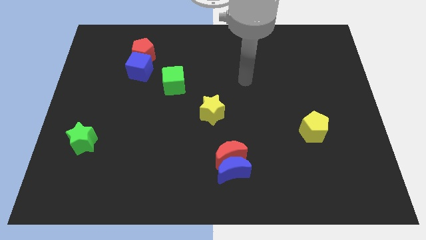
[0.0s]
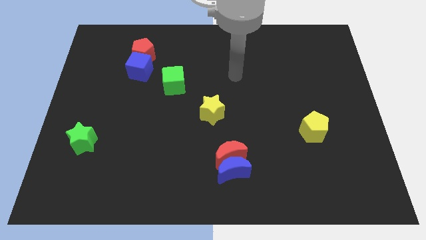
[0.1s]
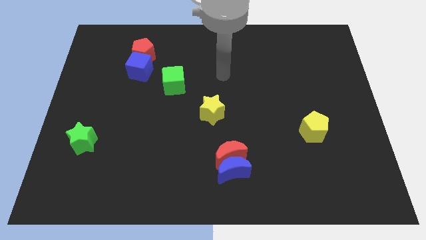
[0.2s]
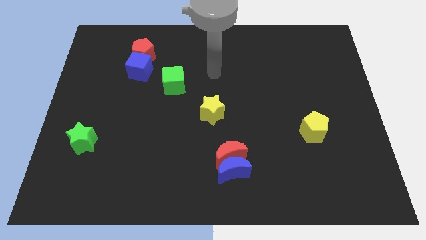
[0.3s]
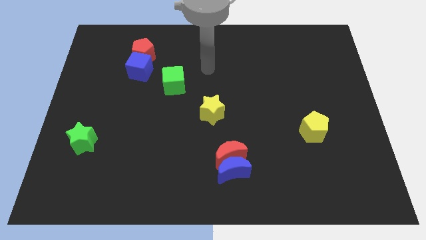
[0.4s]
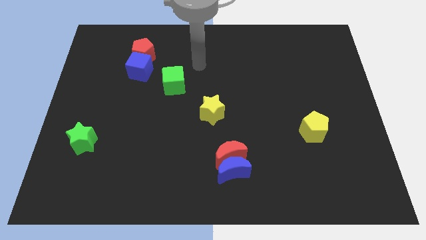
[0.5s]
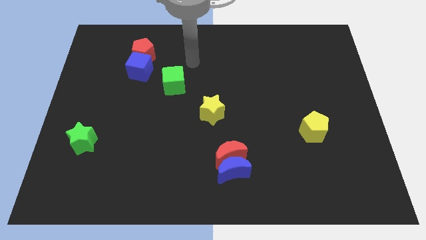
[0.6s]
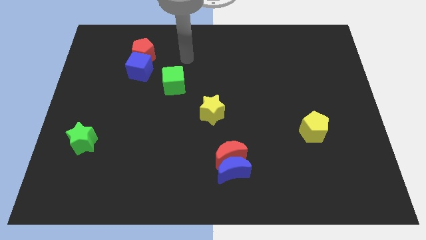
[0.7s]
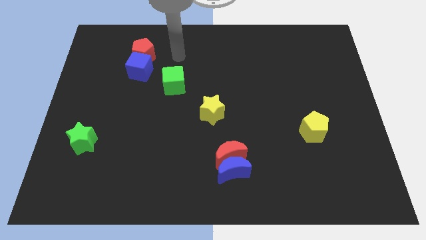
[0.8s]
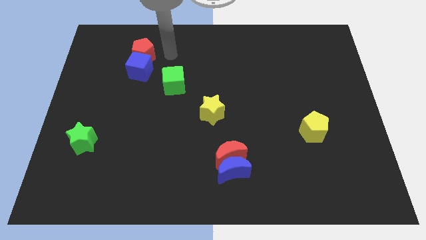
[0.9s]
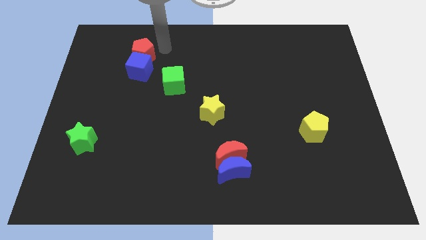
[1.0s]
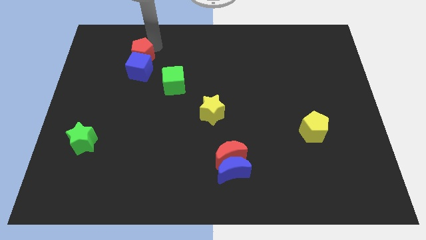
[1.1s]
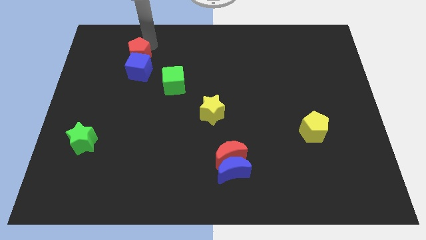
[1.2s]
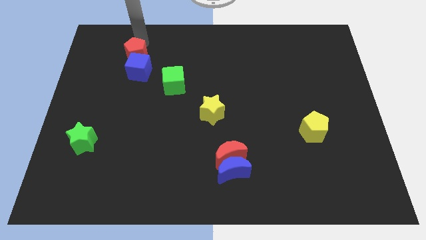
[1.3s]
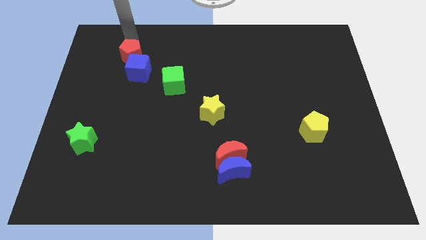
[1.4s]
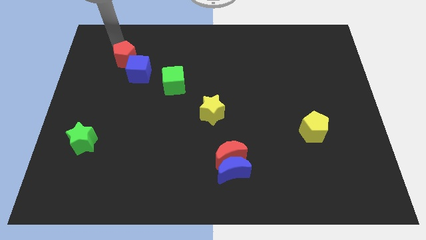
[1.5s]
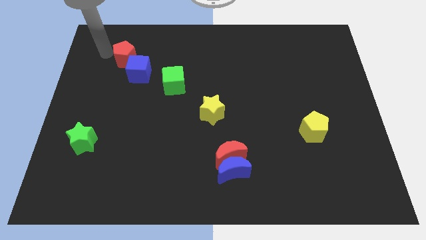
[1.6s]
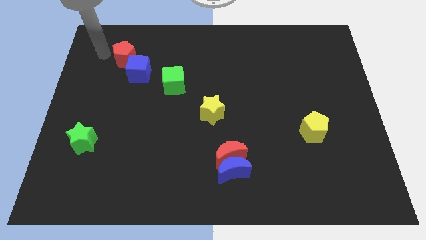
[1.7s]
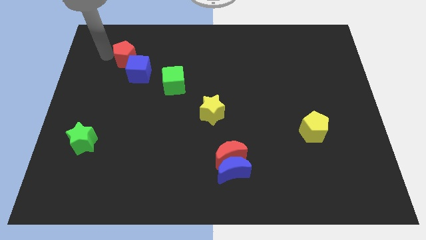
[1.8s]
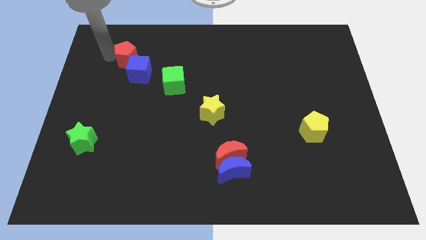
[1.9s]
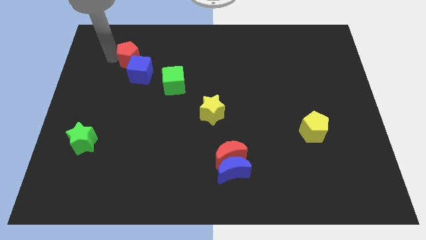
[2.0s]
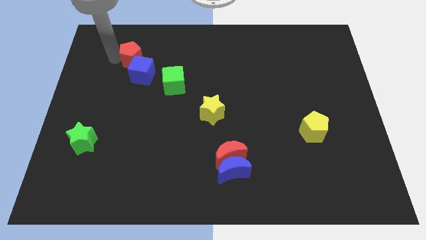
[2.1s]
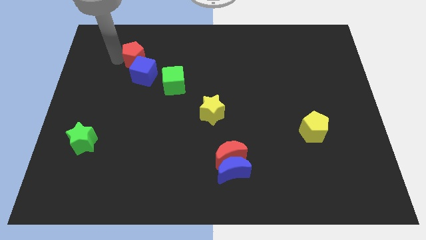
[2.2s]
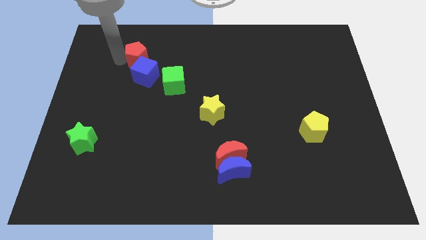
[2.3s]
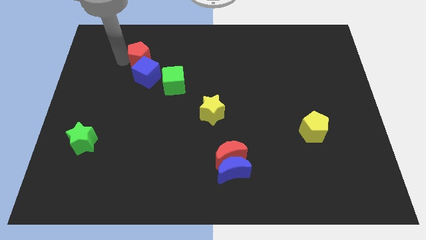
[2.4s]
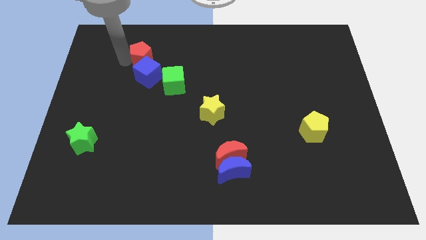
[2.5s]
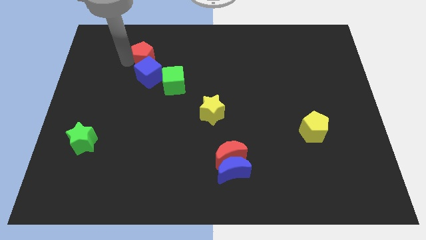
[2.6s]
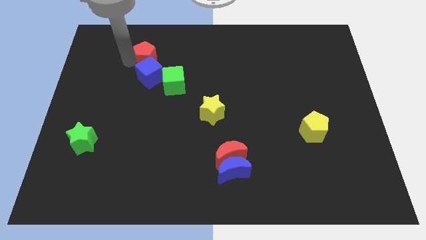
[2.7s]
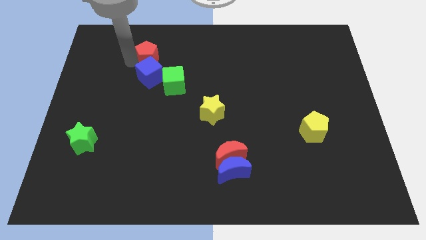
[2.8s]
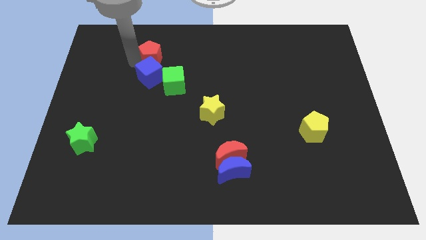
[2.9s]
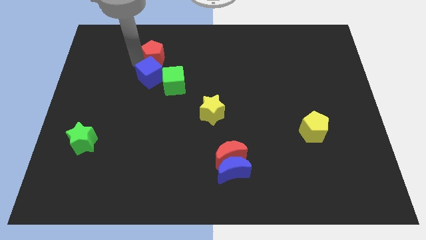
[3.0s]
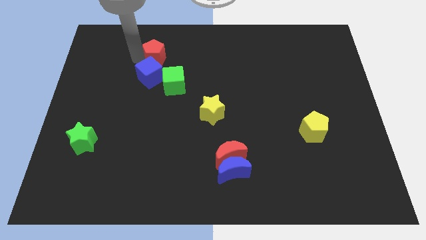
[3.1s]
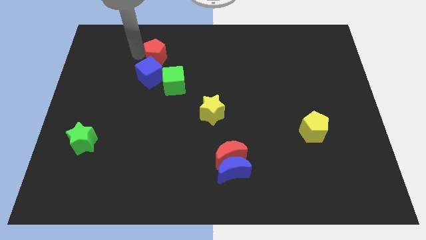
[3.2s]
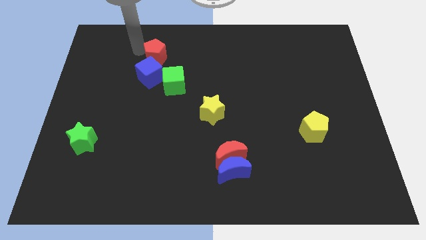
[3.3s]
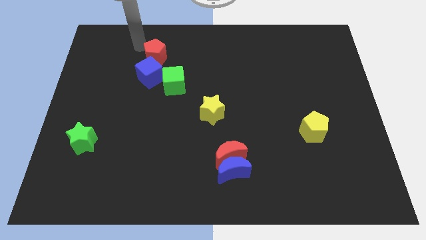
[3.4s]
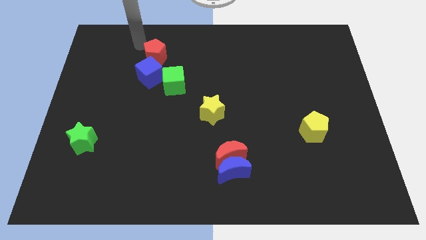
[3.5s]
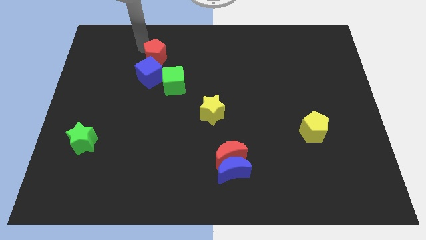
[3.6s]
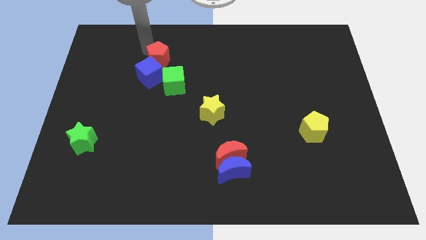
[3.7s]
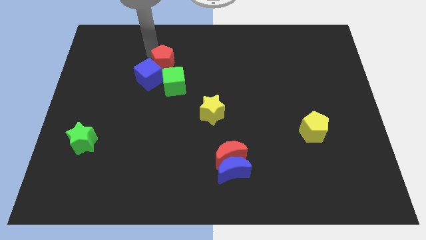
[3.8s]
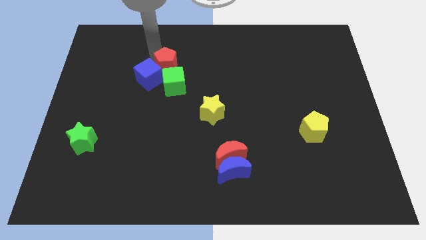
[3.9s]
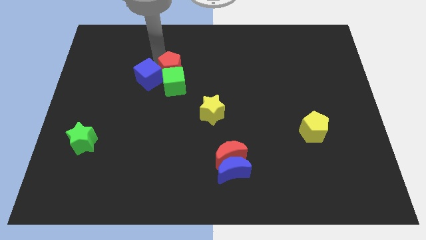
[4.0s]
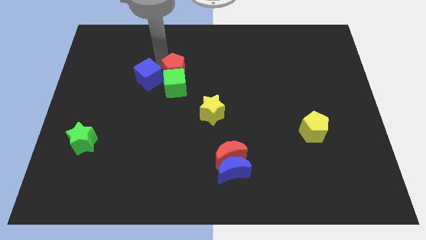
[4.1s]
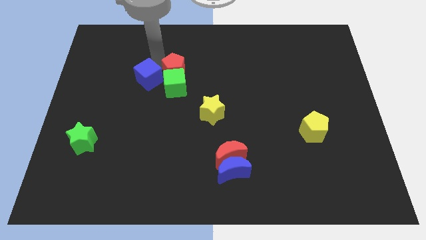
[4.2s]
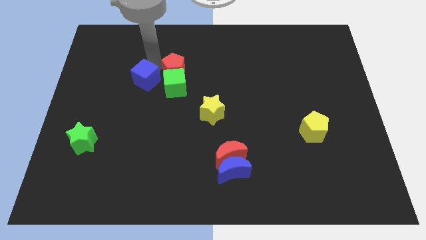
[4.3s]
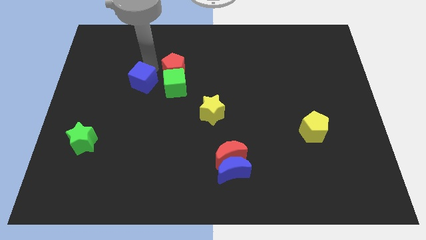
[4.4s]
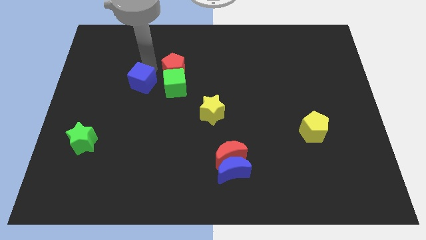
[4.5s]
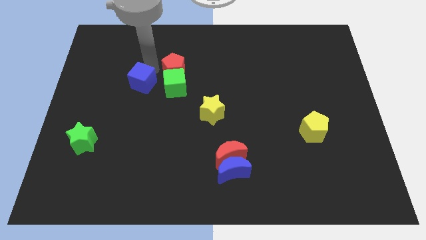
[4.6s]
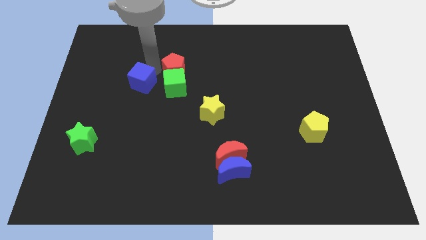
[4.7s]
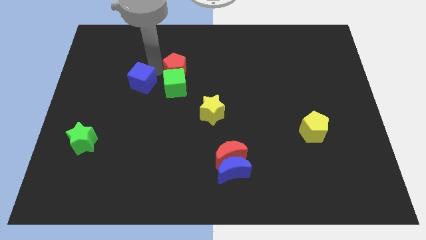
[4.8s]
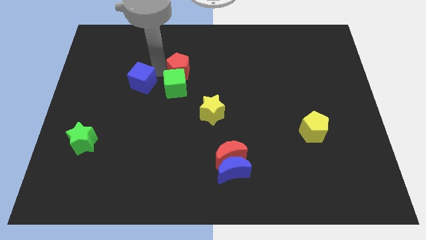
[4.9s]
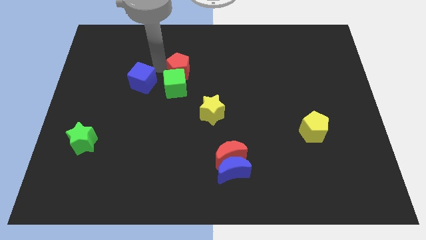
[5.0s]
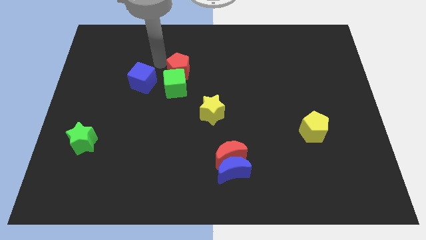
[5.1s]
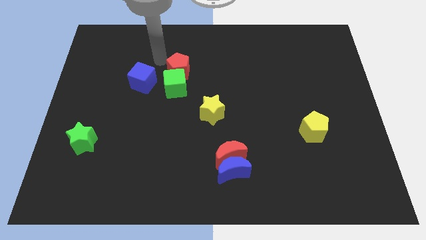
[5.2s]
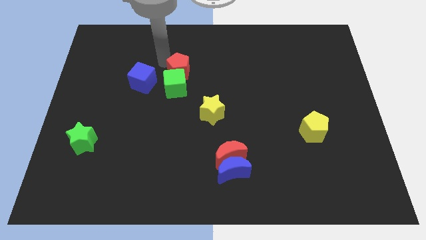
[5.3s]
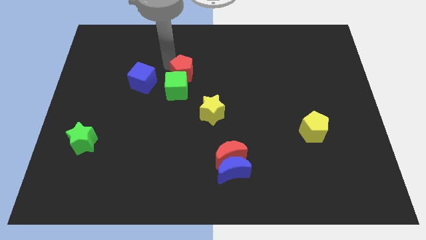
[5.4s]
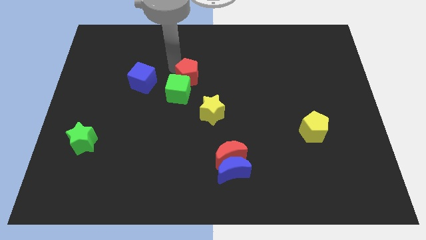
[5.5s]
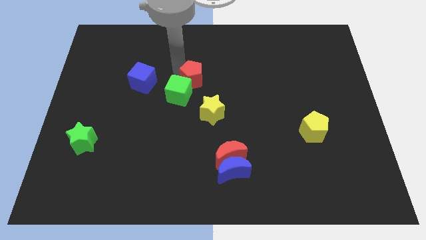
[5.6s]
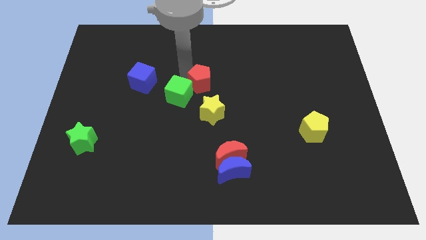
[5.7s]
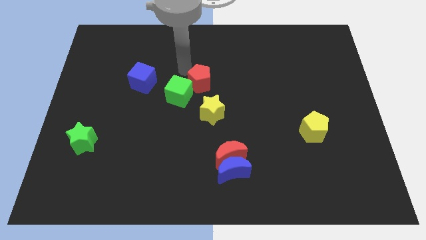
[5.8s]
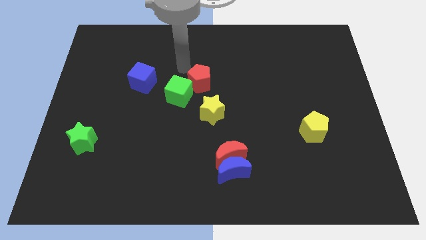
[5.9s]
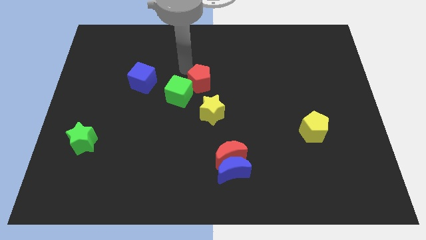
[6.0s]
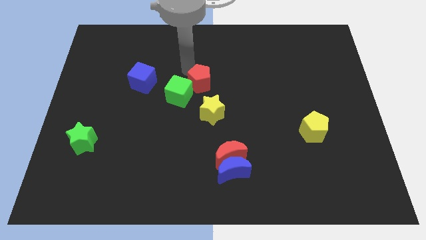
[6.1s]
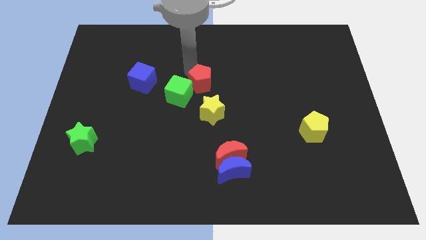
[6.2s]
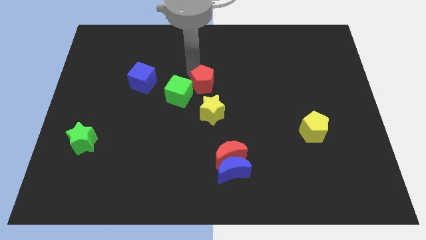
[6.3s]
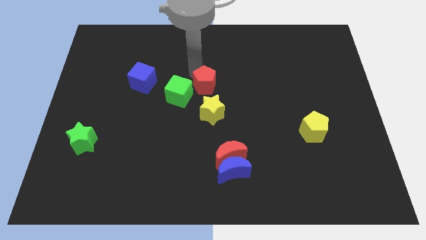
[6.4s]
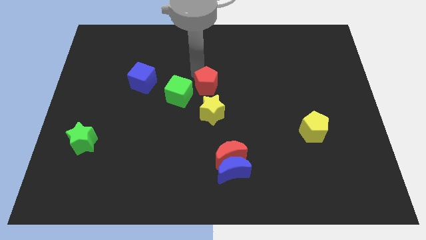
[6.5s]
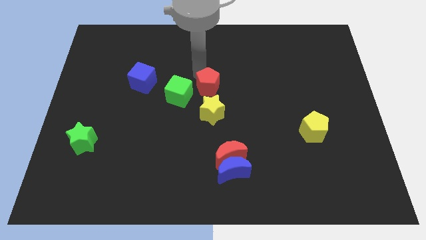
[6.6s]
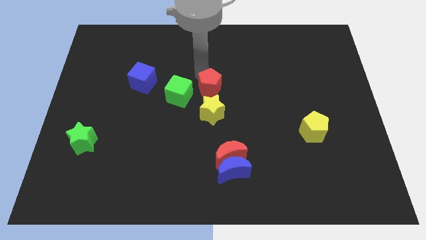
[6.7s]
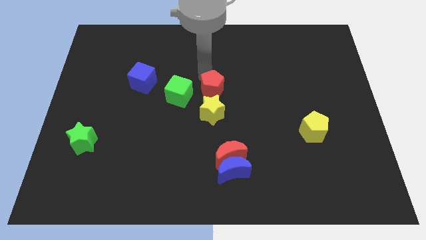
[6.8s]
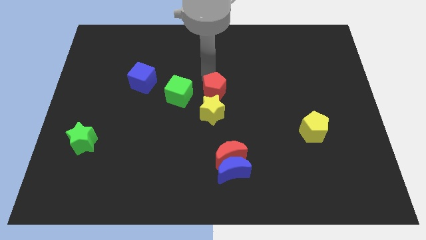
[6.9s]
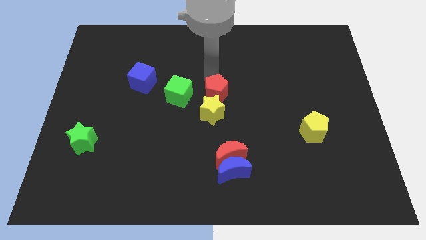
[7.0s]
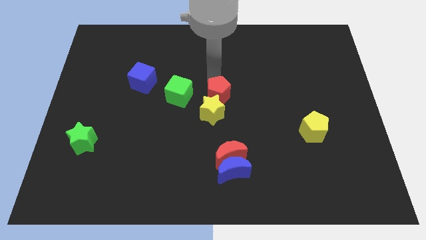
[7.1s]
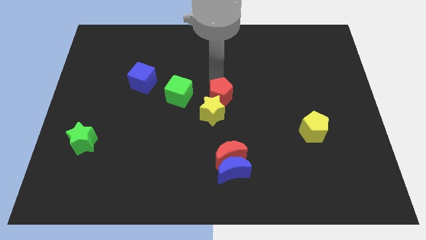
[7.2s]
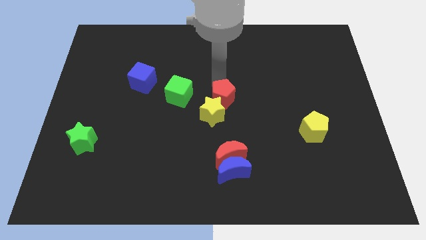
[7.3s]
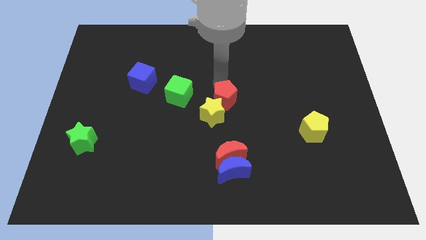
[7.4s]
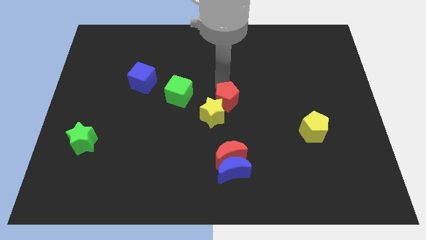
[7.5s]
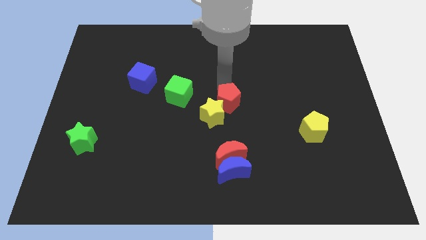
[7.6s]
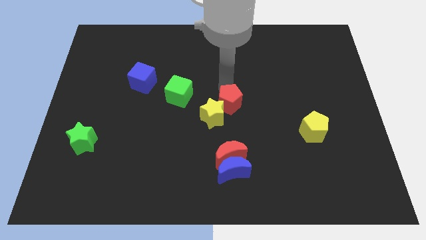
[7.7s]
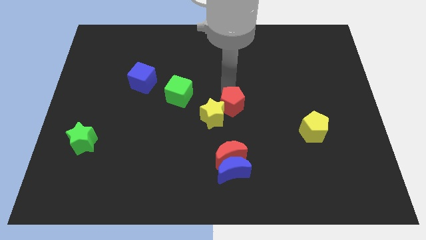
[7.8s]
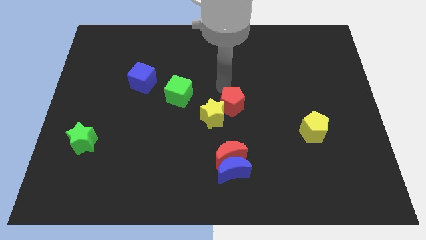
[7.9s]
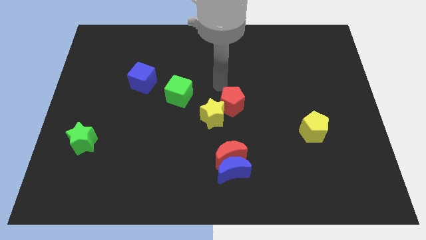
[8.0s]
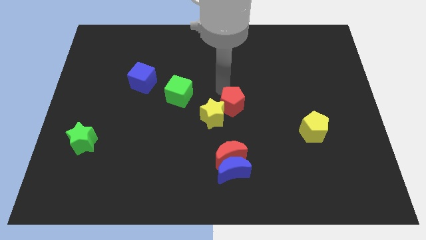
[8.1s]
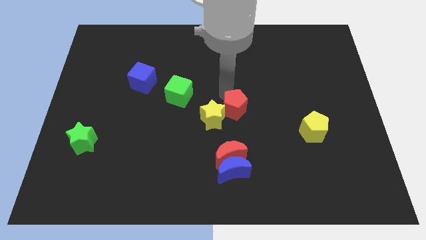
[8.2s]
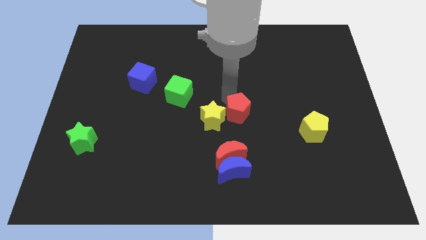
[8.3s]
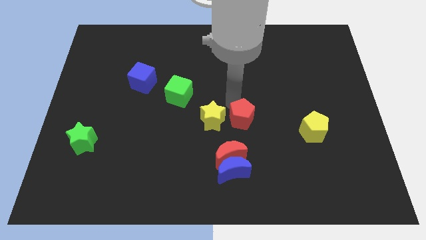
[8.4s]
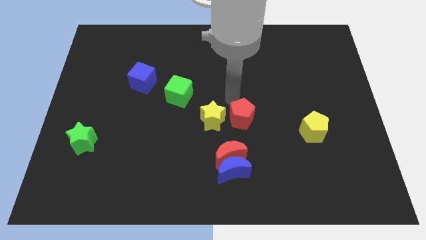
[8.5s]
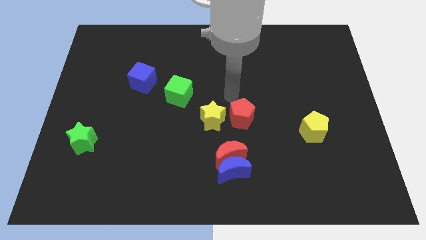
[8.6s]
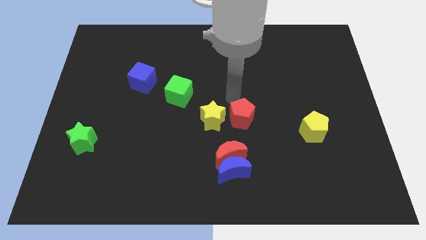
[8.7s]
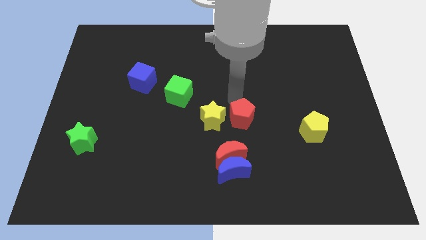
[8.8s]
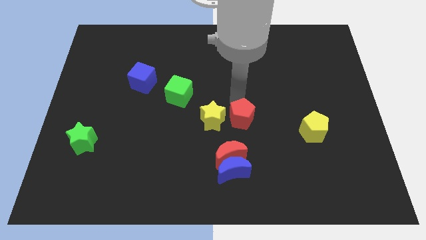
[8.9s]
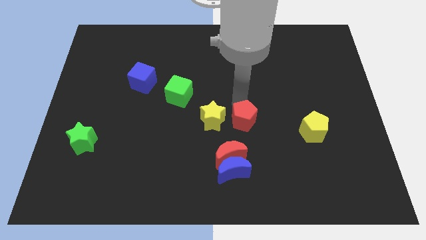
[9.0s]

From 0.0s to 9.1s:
put the red pentagon to the top right of the red moon
